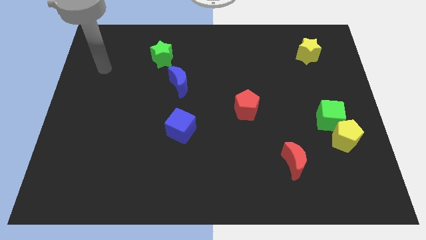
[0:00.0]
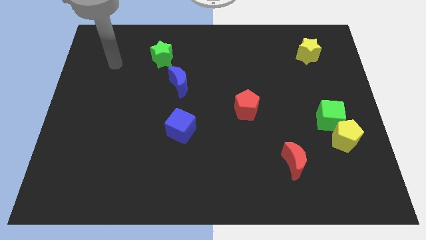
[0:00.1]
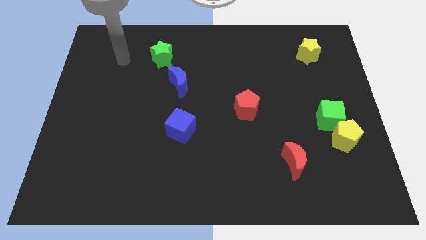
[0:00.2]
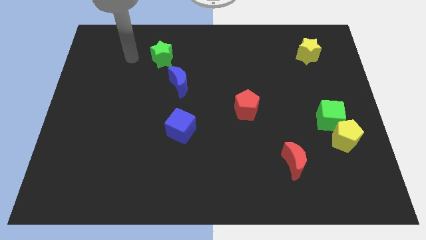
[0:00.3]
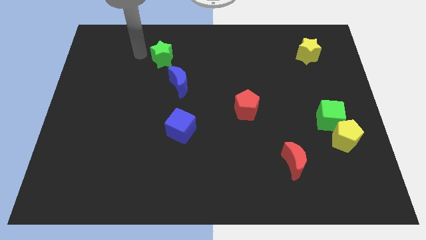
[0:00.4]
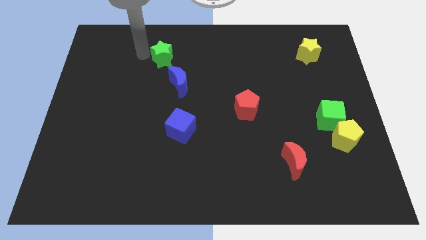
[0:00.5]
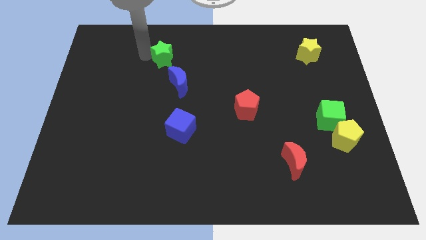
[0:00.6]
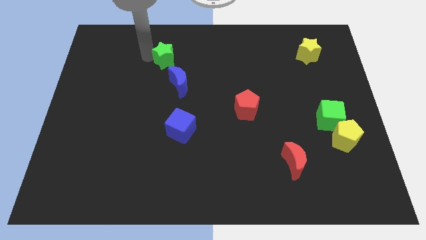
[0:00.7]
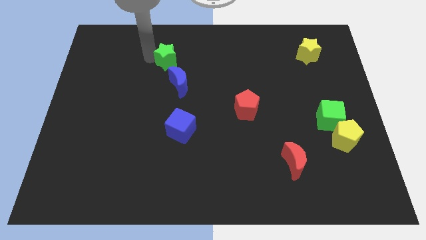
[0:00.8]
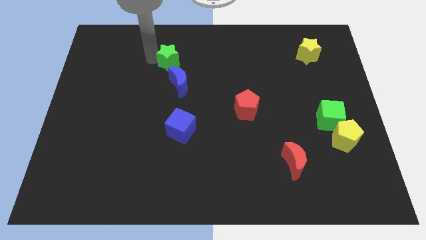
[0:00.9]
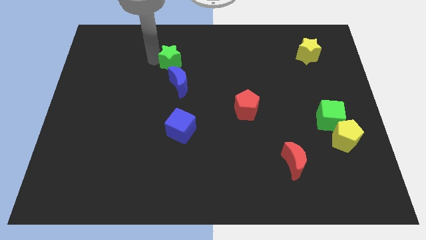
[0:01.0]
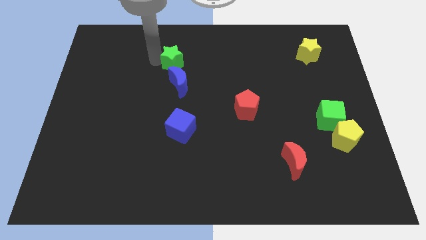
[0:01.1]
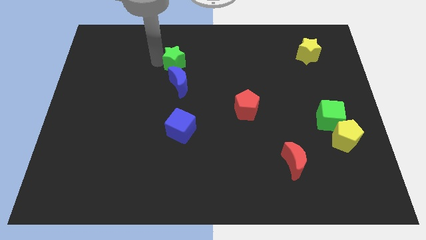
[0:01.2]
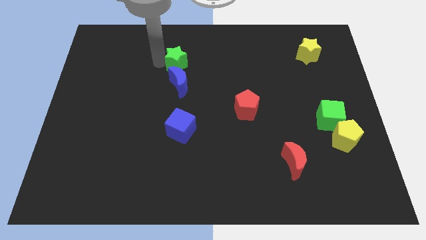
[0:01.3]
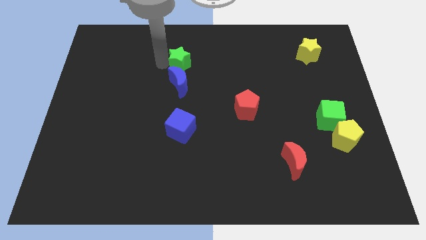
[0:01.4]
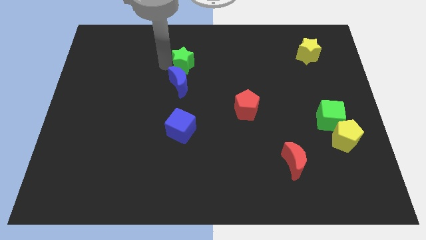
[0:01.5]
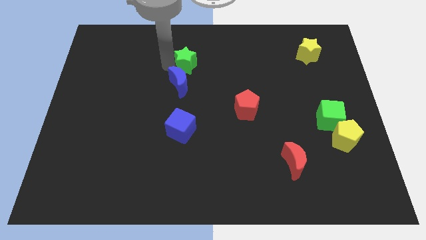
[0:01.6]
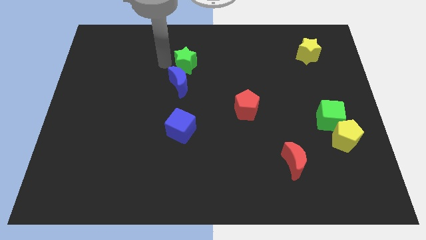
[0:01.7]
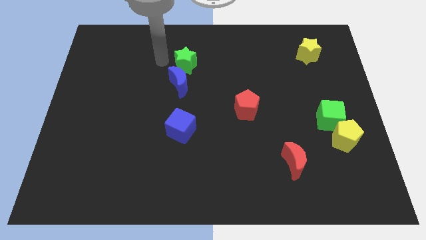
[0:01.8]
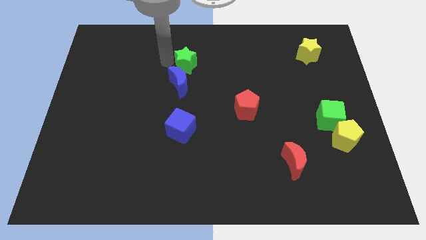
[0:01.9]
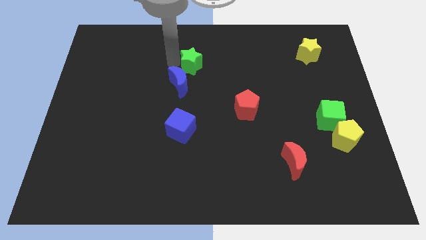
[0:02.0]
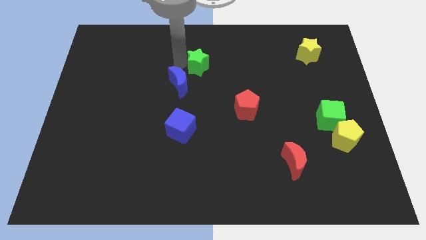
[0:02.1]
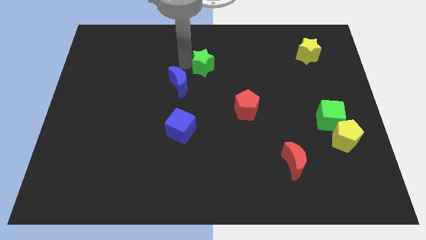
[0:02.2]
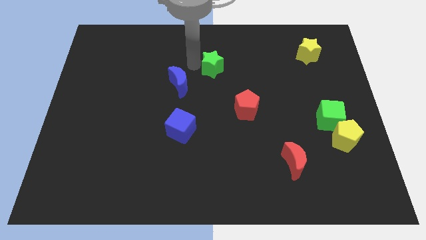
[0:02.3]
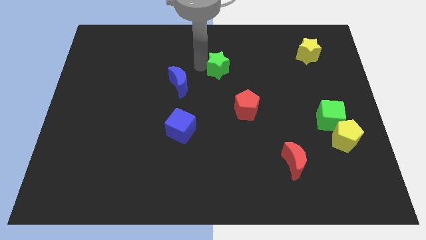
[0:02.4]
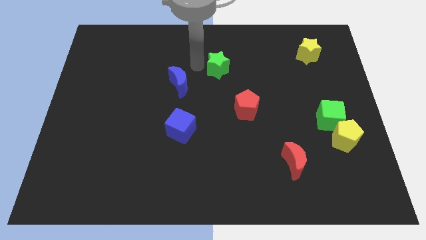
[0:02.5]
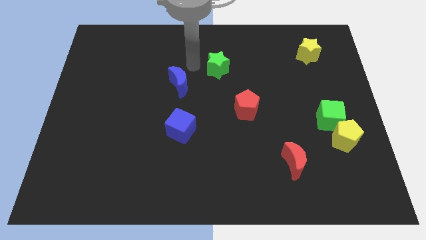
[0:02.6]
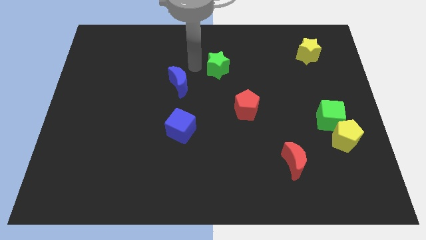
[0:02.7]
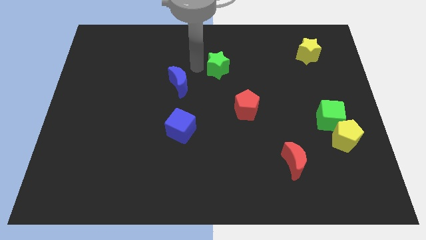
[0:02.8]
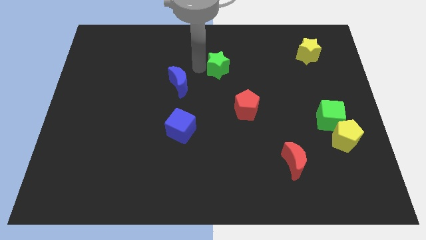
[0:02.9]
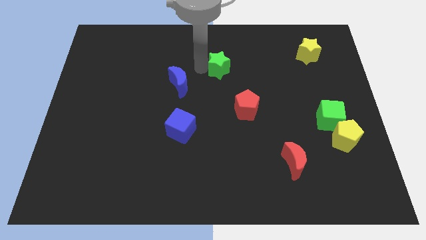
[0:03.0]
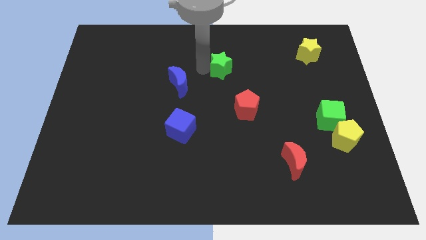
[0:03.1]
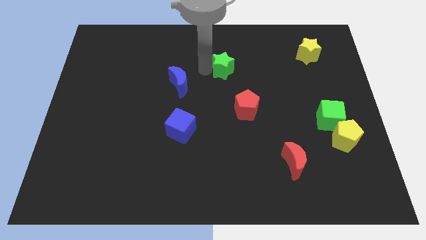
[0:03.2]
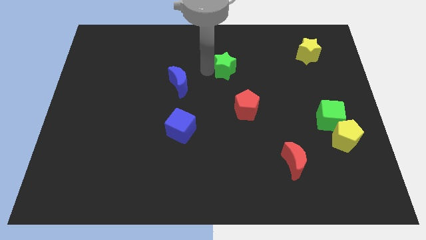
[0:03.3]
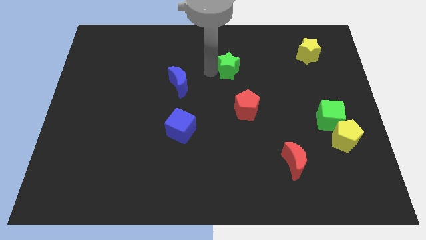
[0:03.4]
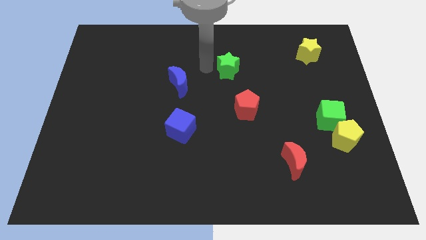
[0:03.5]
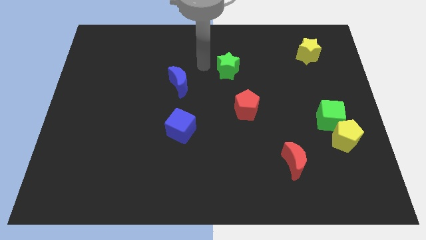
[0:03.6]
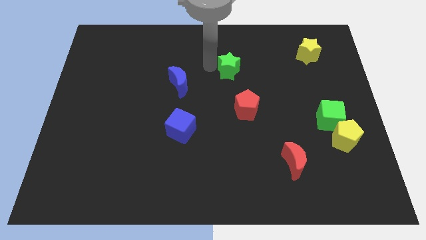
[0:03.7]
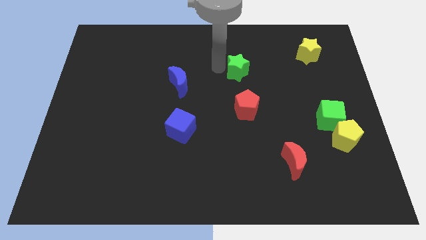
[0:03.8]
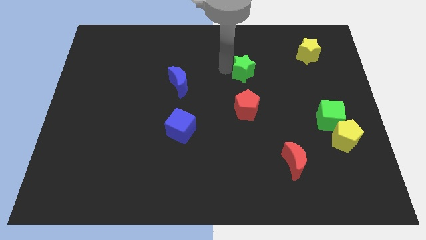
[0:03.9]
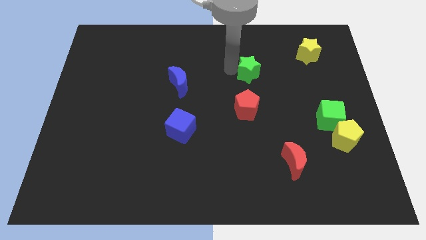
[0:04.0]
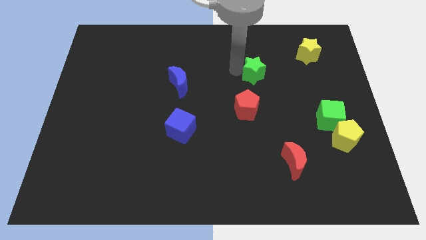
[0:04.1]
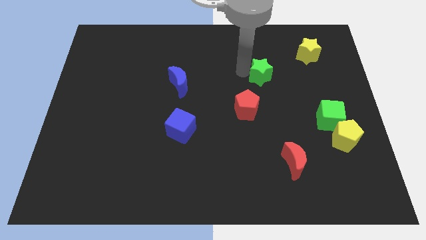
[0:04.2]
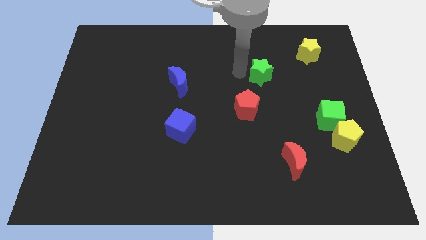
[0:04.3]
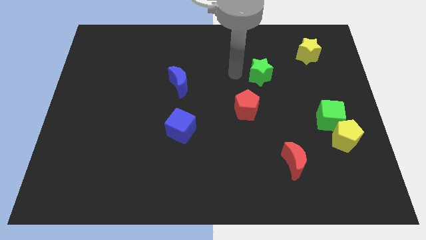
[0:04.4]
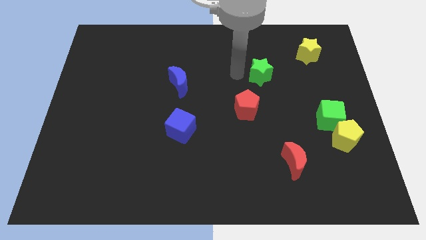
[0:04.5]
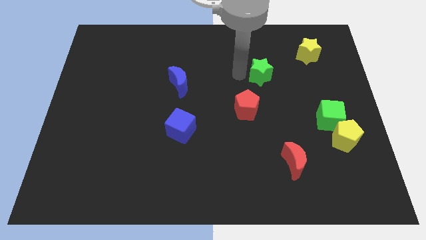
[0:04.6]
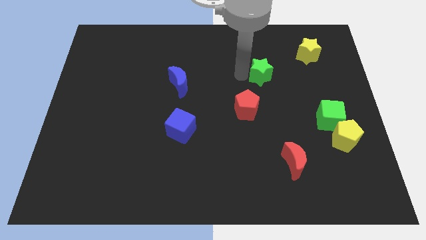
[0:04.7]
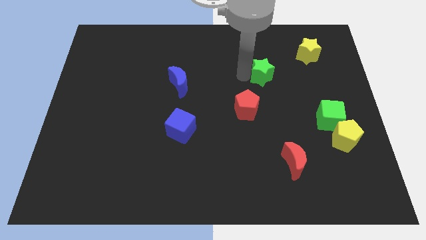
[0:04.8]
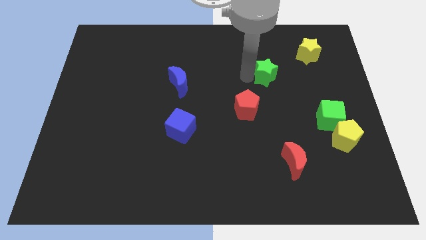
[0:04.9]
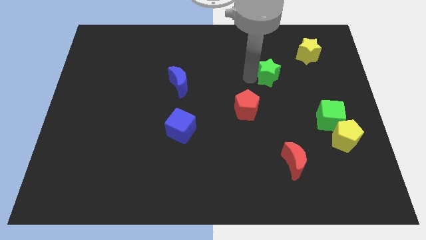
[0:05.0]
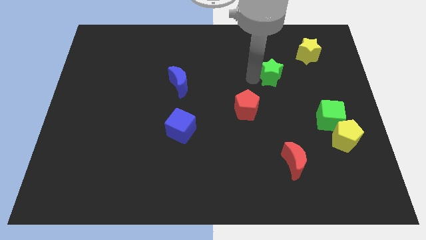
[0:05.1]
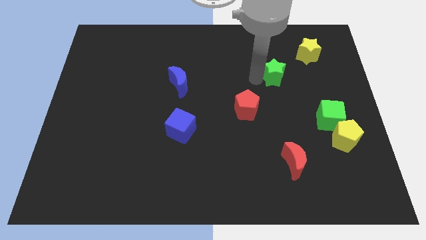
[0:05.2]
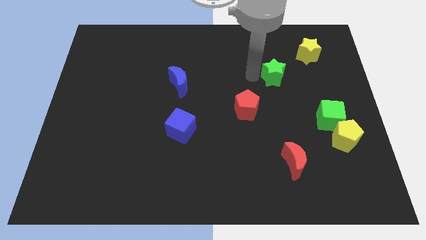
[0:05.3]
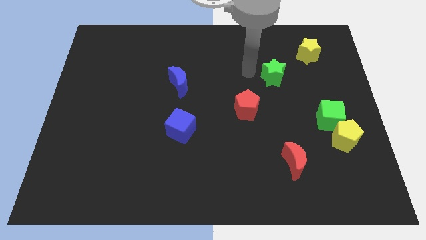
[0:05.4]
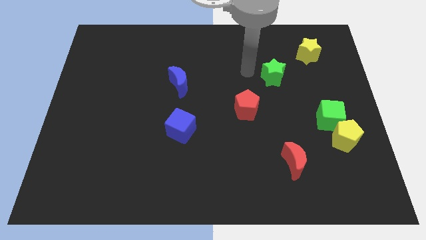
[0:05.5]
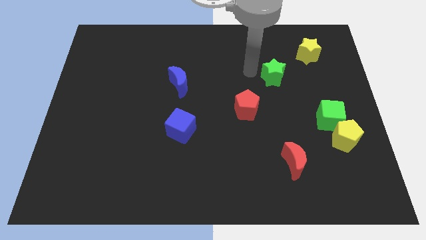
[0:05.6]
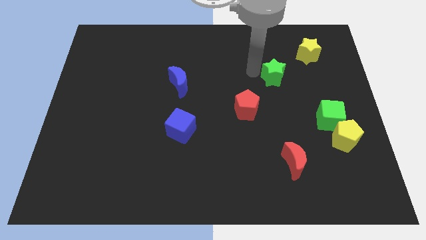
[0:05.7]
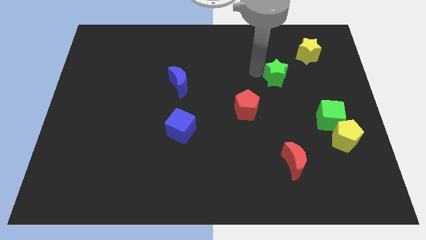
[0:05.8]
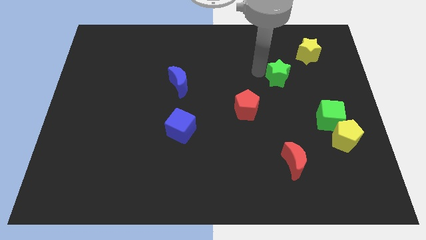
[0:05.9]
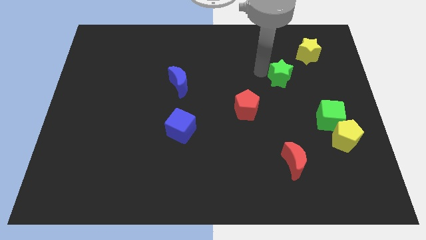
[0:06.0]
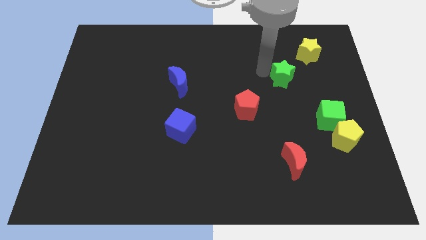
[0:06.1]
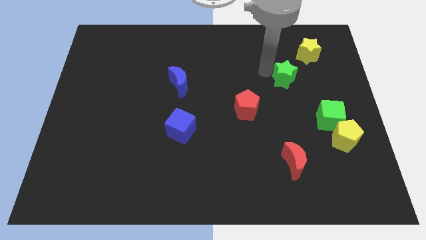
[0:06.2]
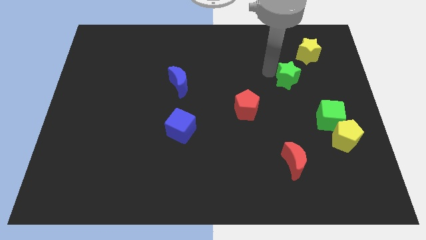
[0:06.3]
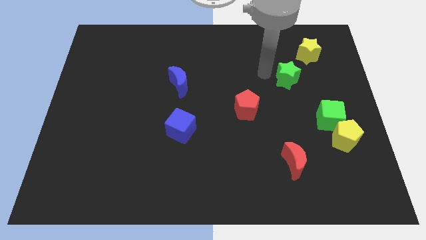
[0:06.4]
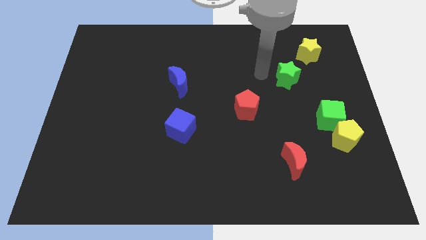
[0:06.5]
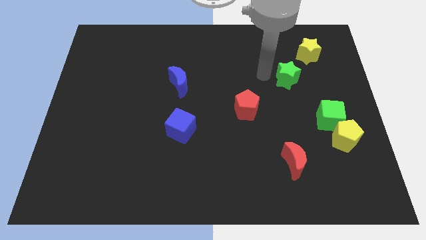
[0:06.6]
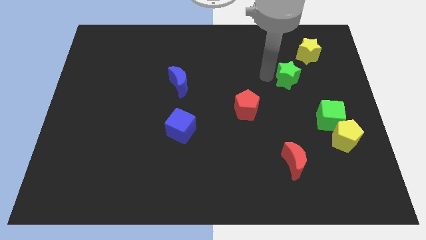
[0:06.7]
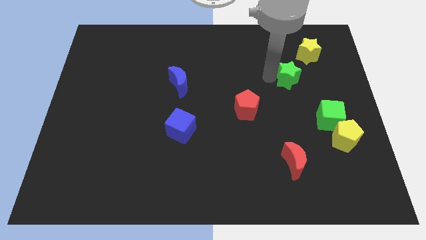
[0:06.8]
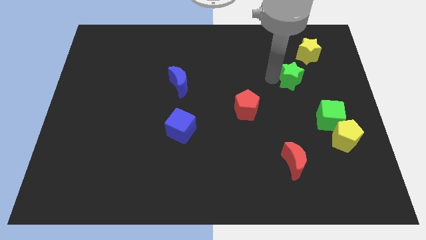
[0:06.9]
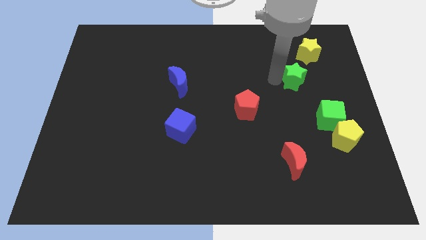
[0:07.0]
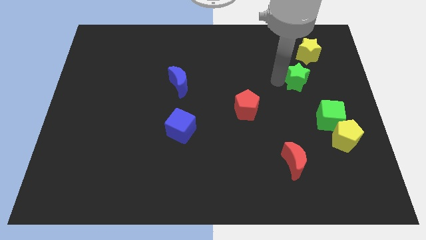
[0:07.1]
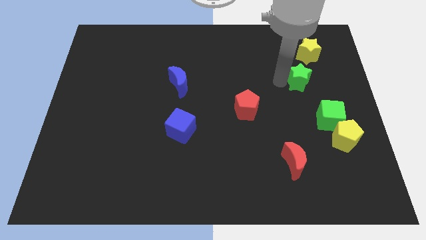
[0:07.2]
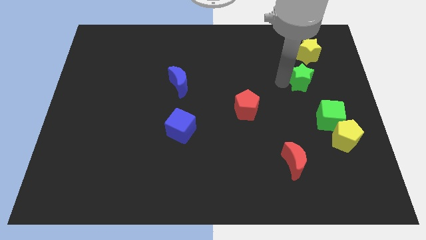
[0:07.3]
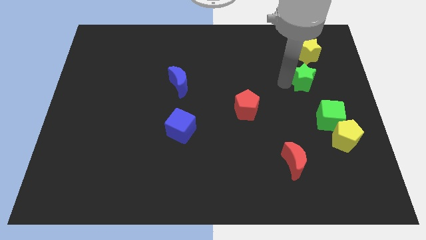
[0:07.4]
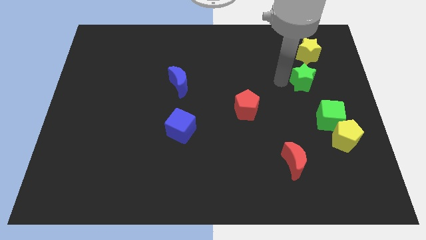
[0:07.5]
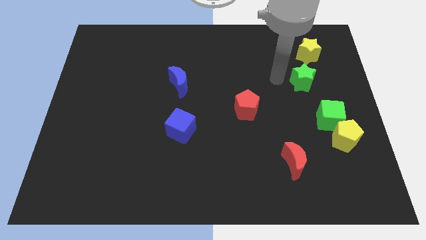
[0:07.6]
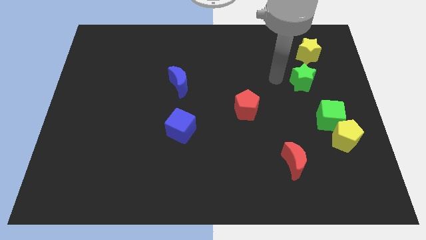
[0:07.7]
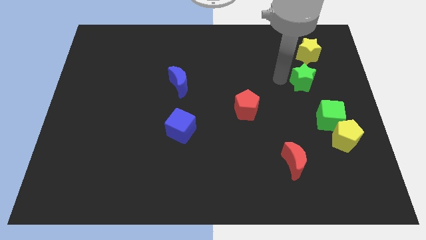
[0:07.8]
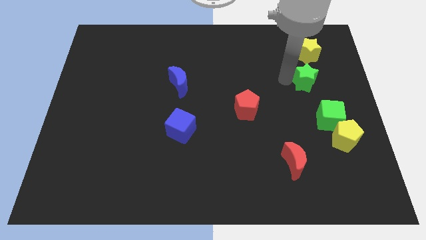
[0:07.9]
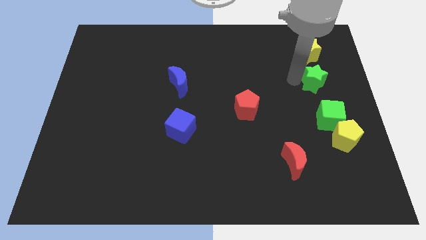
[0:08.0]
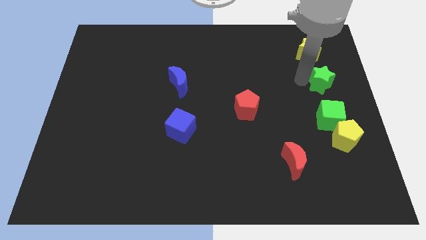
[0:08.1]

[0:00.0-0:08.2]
slide the green star to the right side of the board
